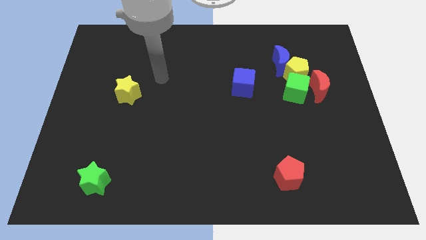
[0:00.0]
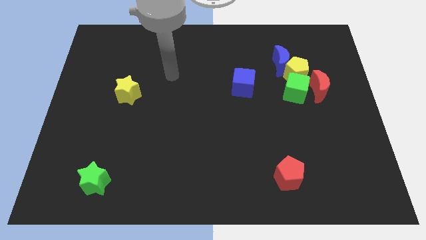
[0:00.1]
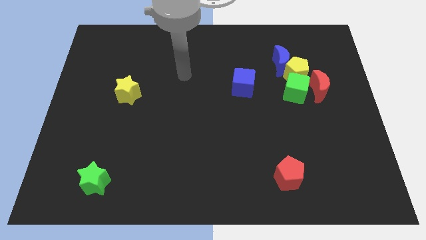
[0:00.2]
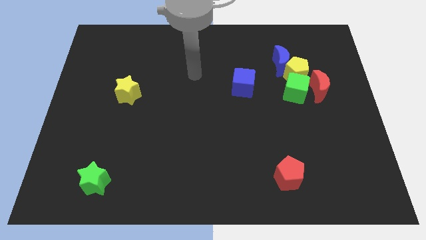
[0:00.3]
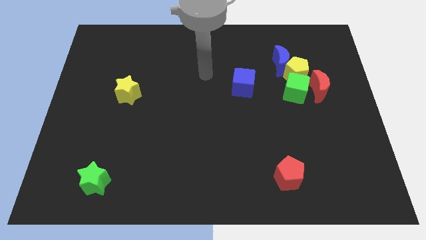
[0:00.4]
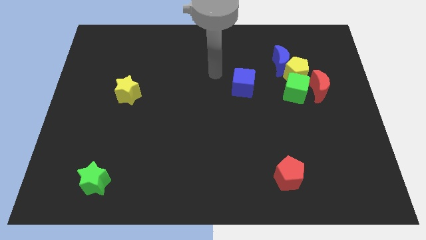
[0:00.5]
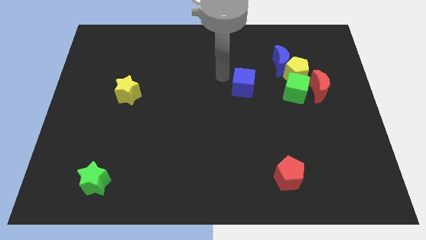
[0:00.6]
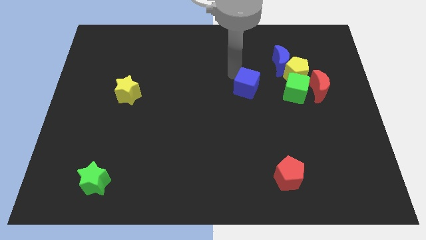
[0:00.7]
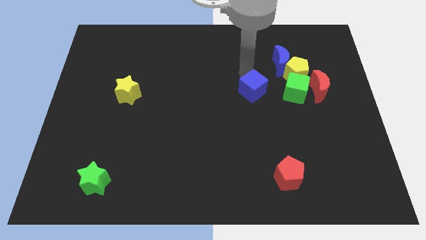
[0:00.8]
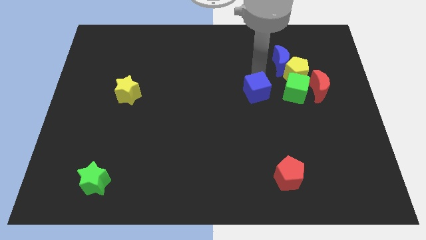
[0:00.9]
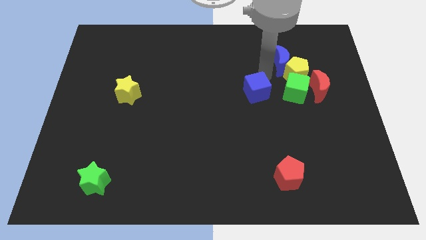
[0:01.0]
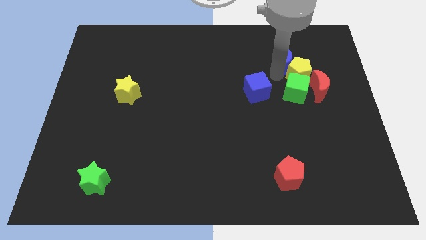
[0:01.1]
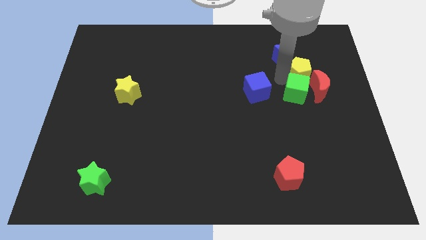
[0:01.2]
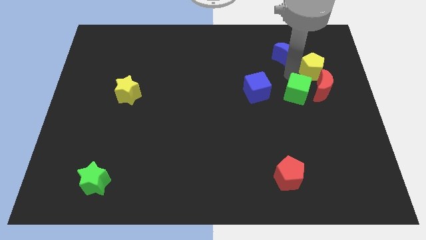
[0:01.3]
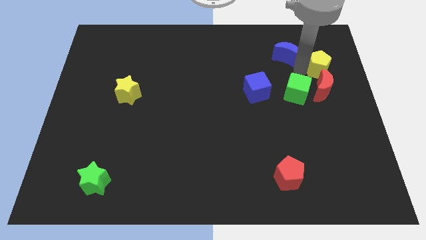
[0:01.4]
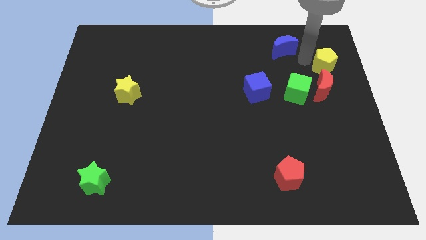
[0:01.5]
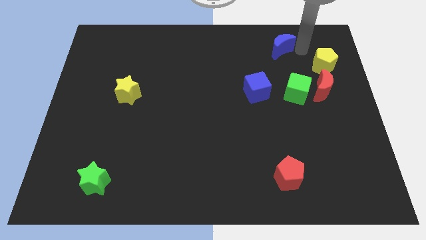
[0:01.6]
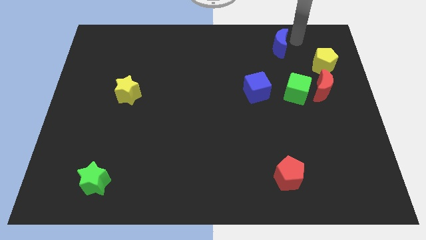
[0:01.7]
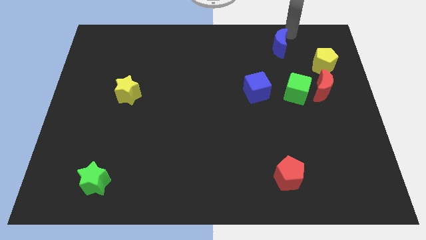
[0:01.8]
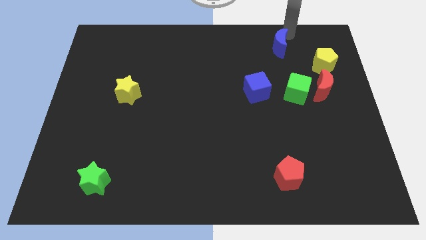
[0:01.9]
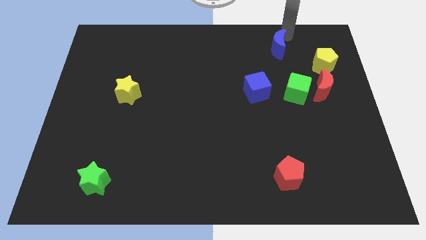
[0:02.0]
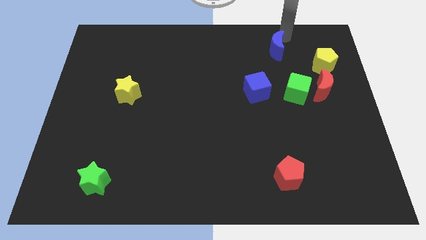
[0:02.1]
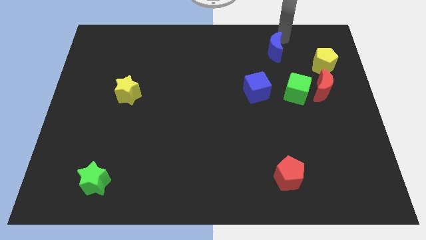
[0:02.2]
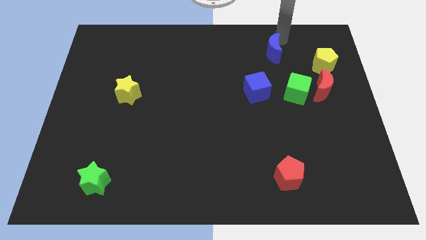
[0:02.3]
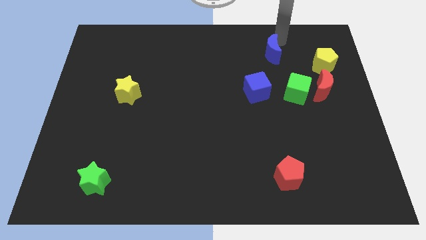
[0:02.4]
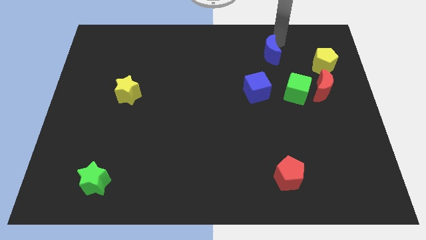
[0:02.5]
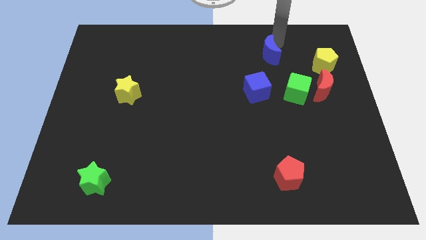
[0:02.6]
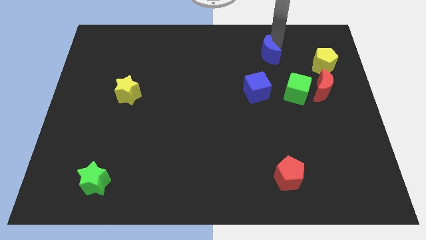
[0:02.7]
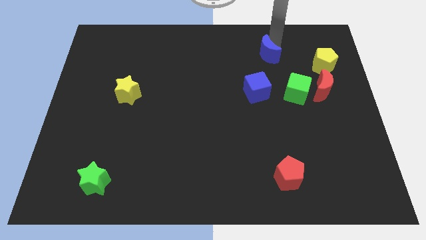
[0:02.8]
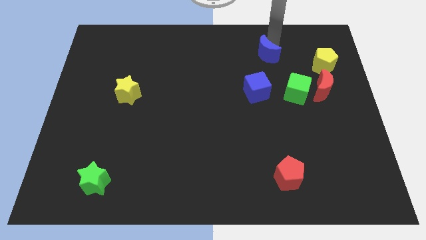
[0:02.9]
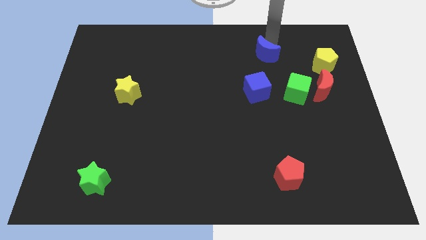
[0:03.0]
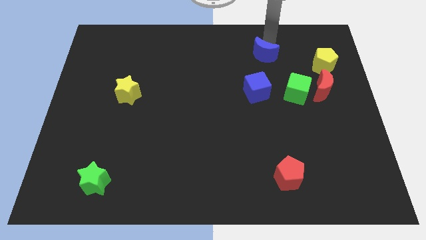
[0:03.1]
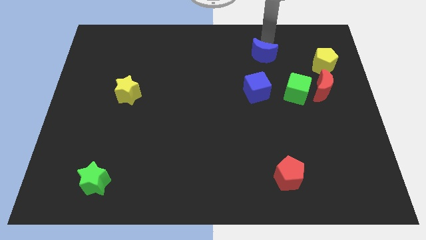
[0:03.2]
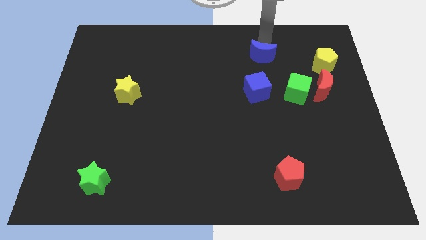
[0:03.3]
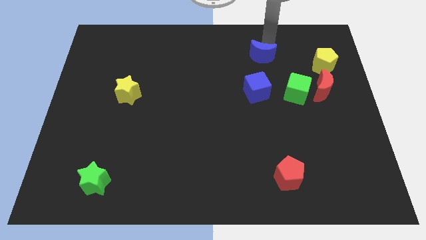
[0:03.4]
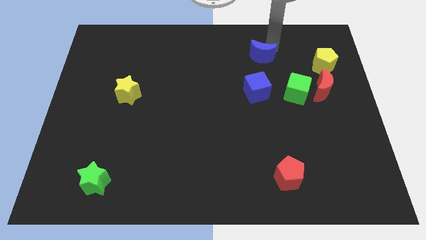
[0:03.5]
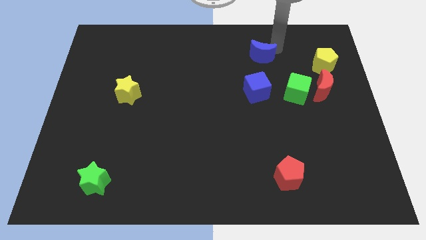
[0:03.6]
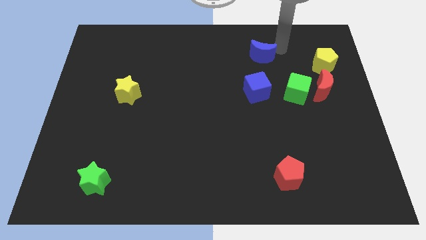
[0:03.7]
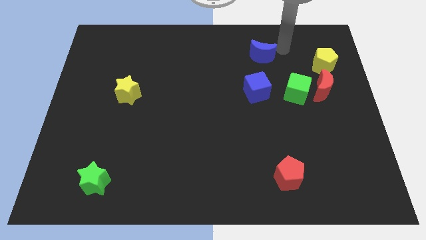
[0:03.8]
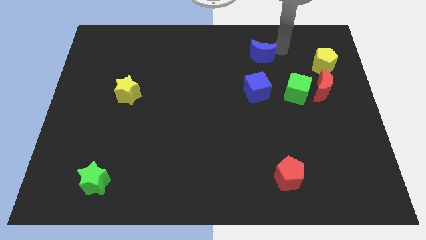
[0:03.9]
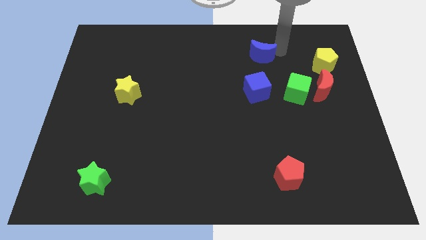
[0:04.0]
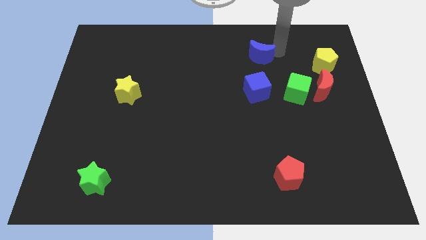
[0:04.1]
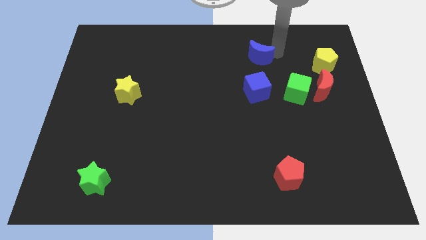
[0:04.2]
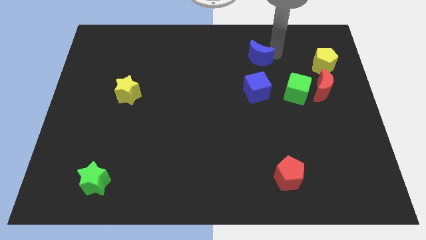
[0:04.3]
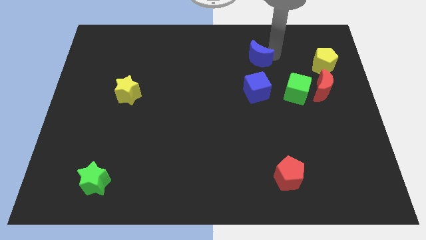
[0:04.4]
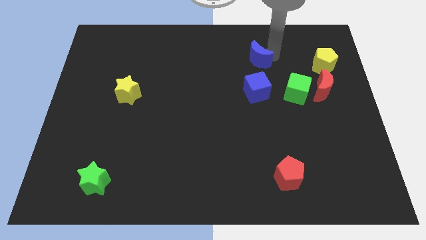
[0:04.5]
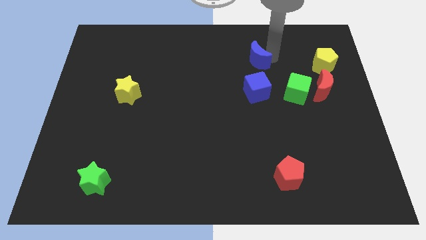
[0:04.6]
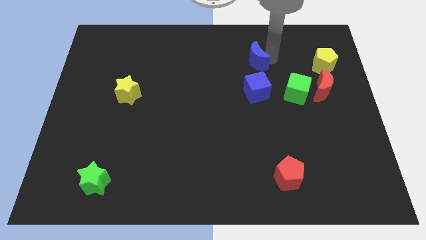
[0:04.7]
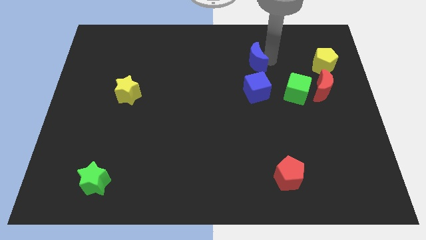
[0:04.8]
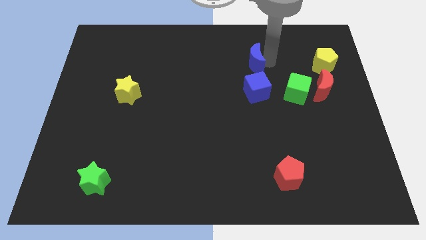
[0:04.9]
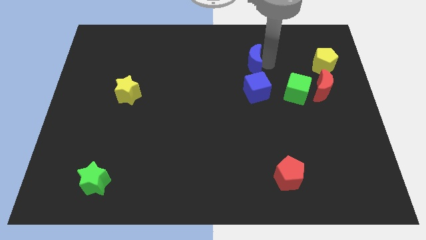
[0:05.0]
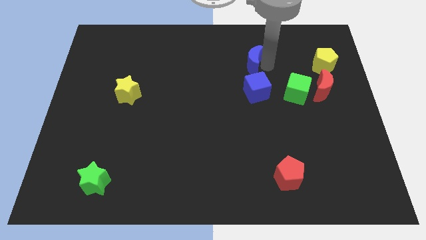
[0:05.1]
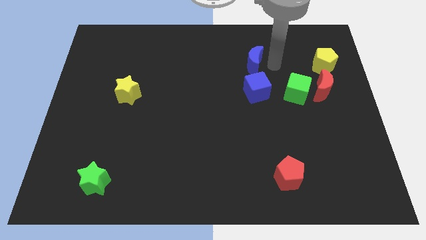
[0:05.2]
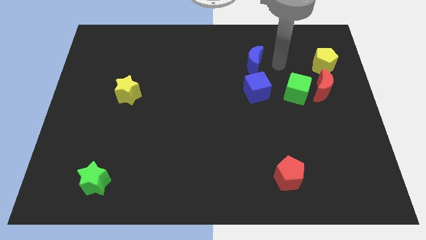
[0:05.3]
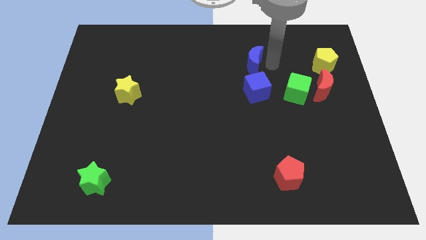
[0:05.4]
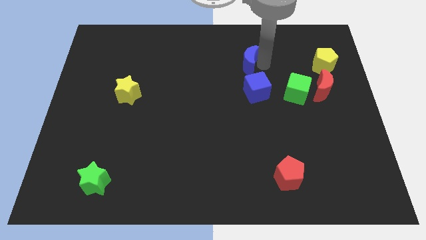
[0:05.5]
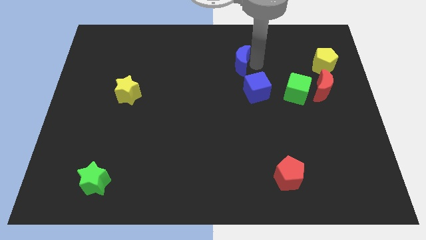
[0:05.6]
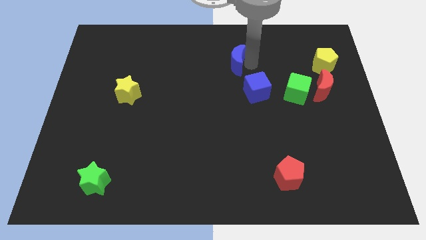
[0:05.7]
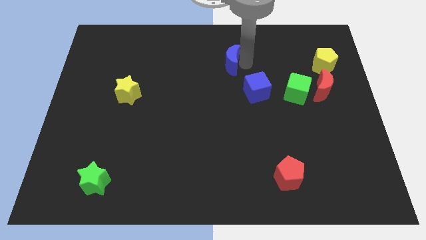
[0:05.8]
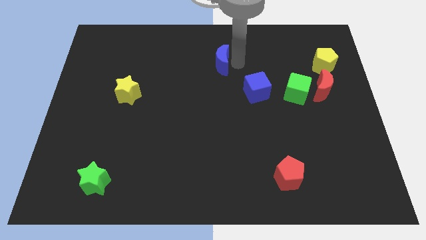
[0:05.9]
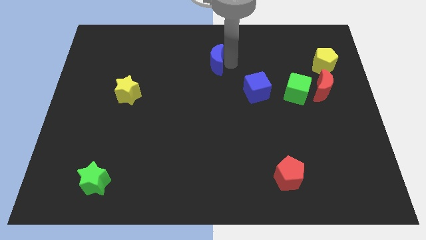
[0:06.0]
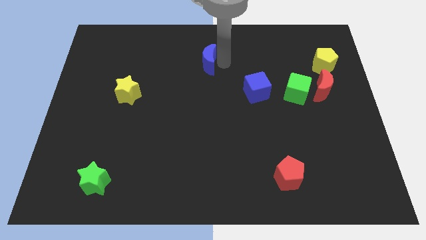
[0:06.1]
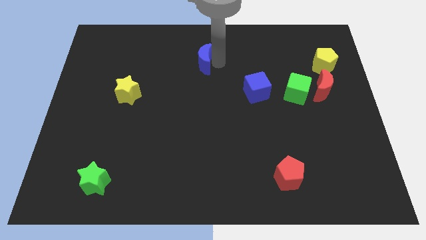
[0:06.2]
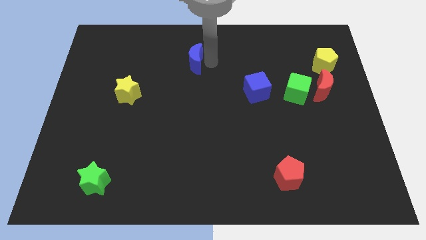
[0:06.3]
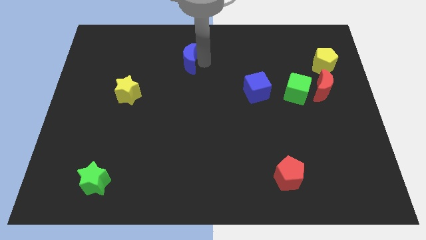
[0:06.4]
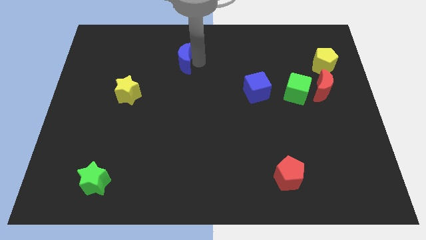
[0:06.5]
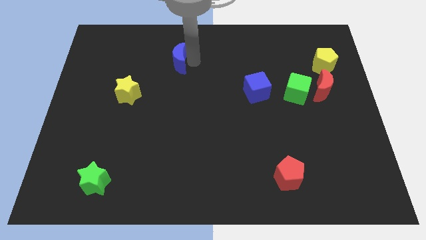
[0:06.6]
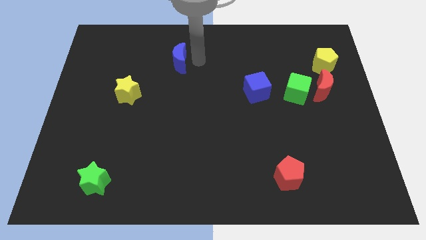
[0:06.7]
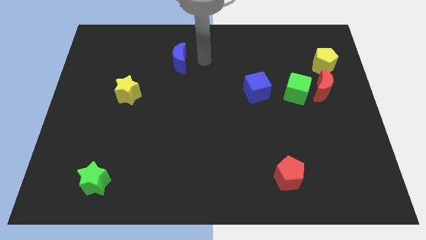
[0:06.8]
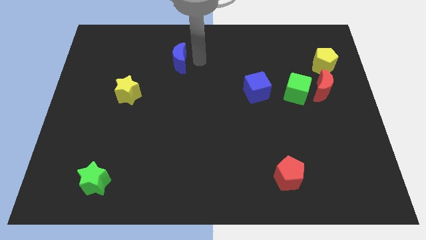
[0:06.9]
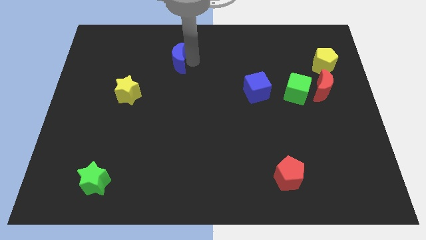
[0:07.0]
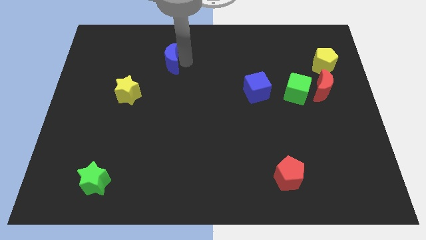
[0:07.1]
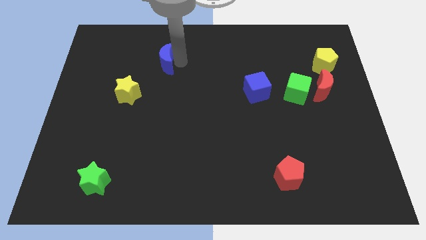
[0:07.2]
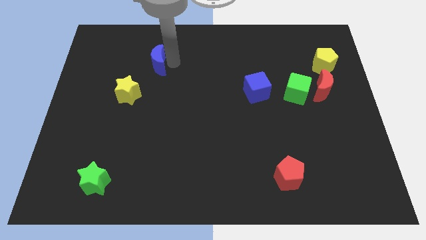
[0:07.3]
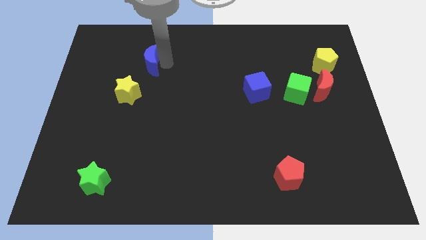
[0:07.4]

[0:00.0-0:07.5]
move the blue moon to the top of the yellow star

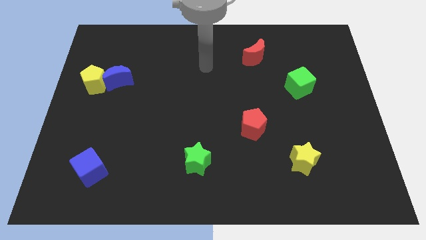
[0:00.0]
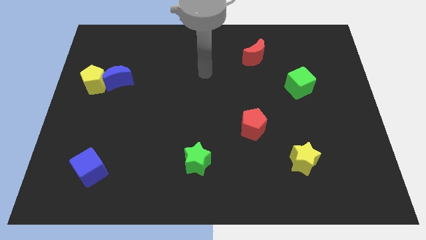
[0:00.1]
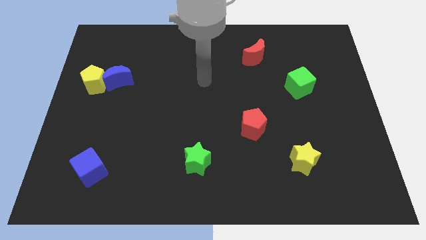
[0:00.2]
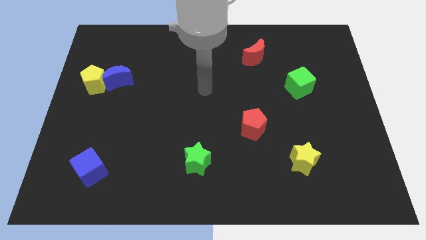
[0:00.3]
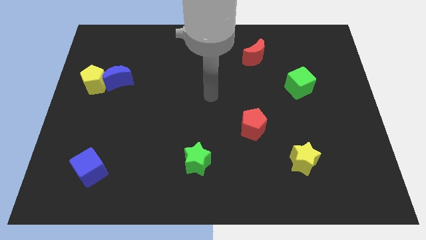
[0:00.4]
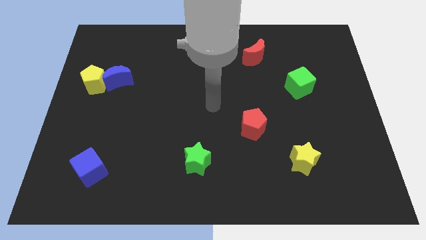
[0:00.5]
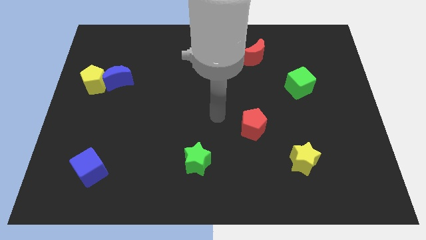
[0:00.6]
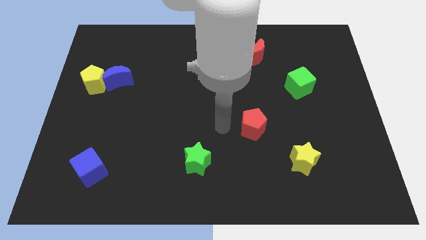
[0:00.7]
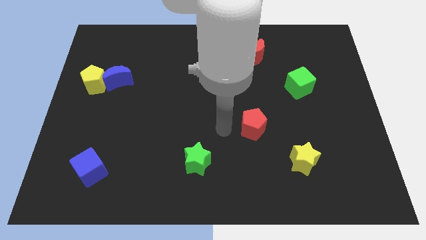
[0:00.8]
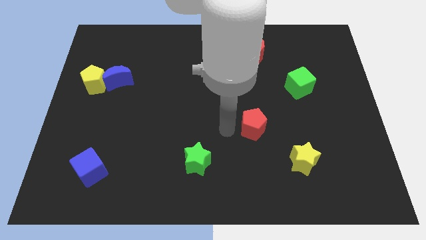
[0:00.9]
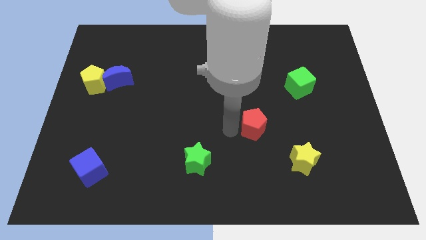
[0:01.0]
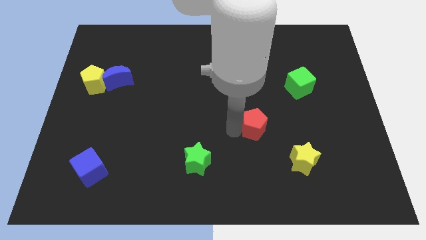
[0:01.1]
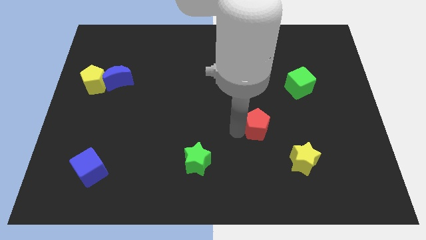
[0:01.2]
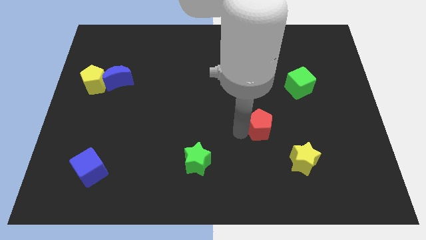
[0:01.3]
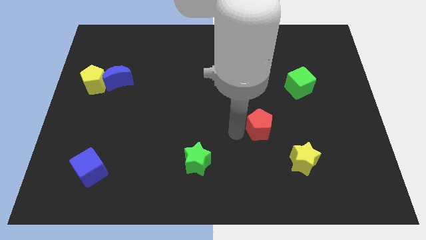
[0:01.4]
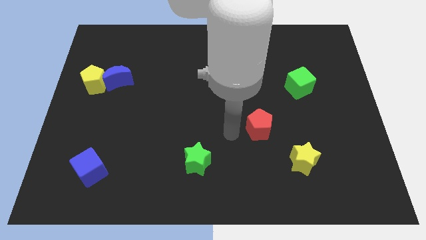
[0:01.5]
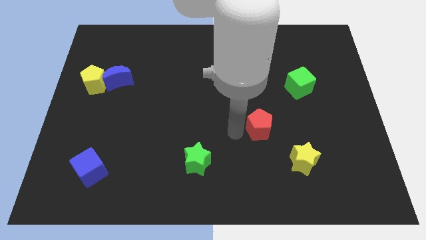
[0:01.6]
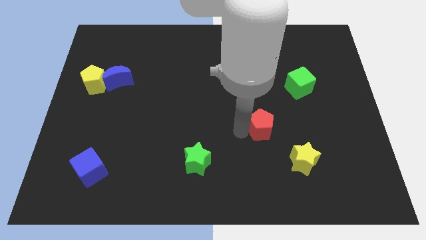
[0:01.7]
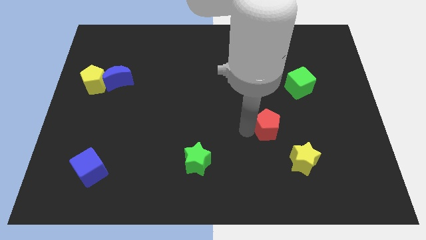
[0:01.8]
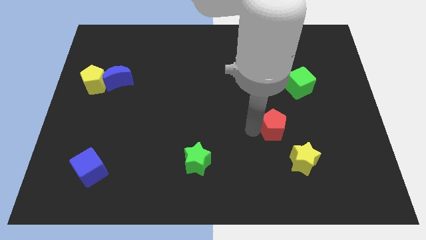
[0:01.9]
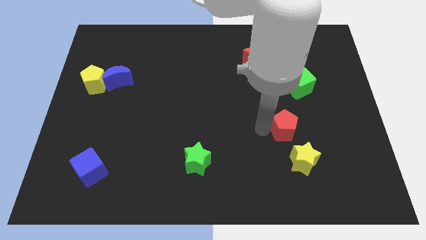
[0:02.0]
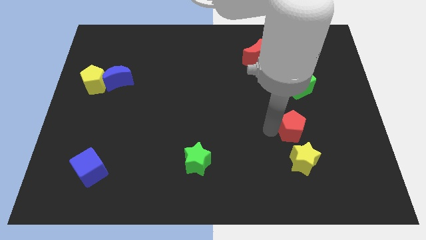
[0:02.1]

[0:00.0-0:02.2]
slide the red pentagon to the bottom of the green cube
